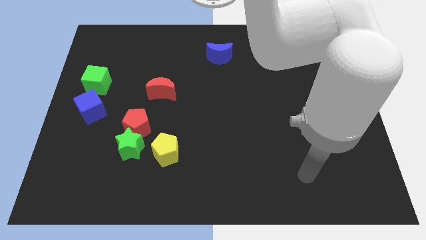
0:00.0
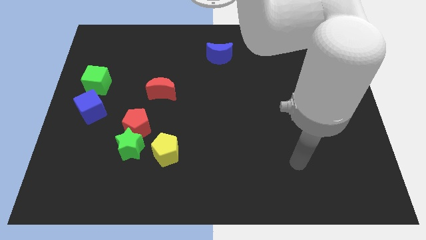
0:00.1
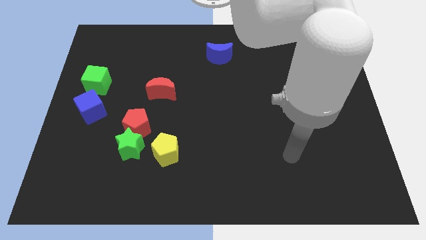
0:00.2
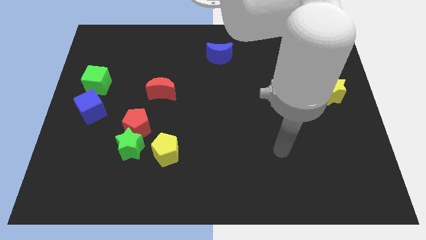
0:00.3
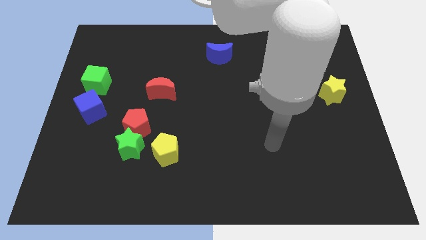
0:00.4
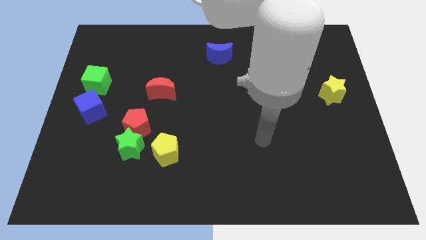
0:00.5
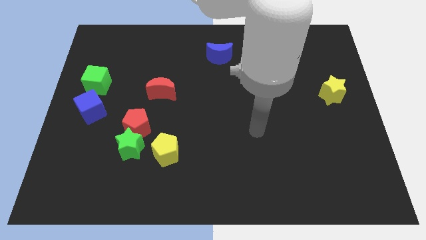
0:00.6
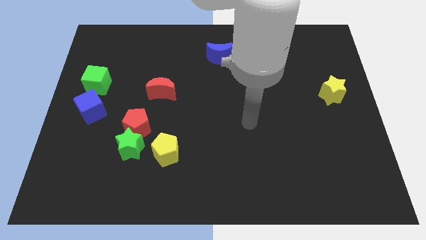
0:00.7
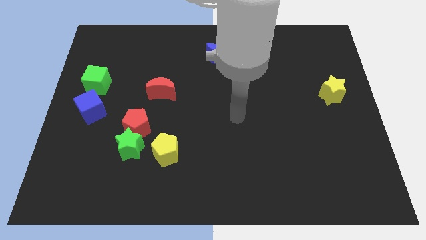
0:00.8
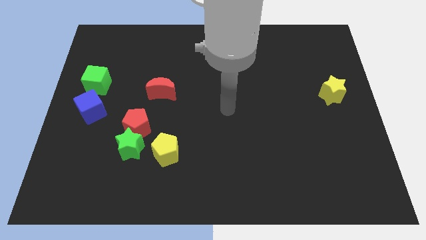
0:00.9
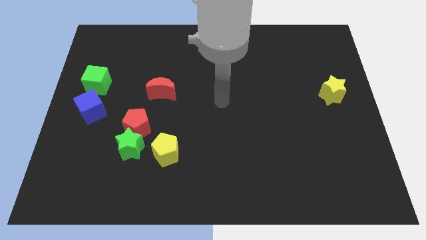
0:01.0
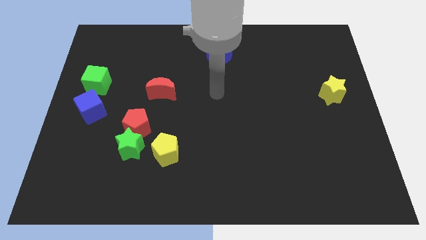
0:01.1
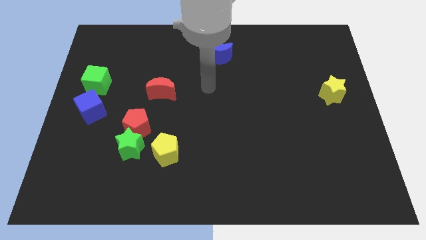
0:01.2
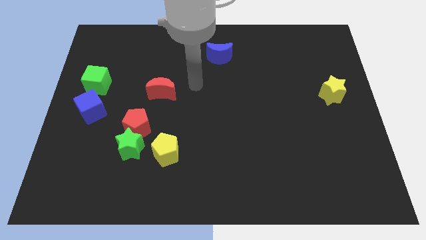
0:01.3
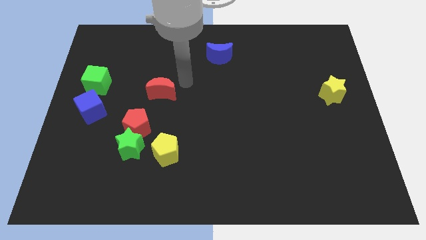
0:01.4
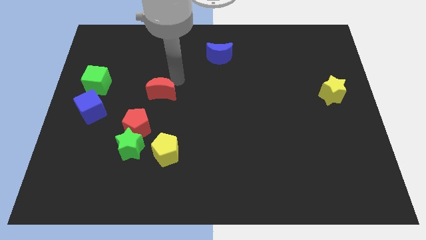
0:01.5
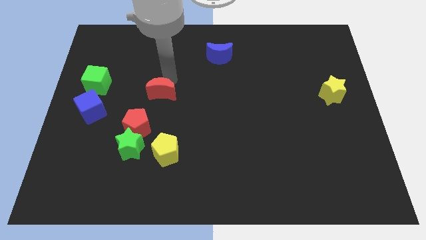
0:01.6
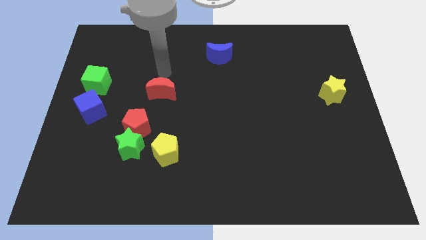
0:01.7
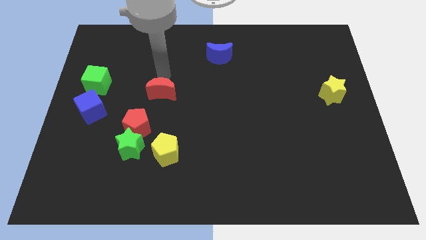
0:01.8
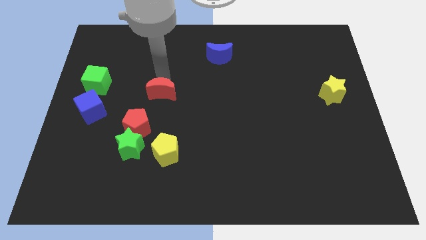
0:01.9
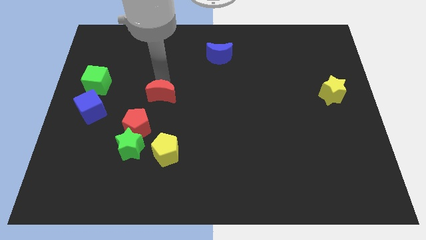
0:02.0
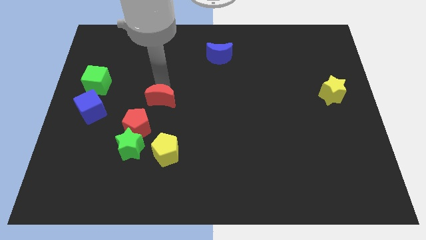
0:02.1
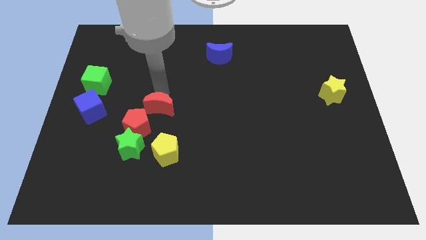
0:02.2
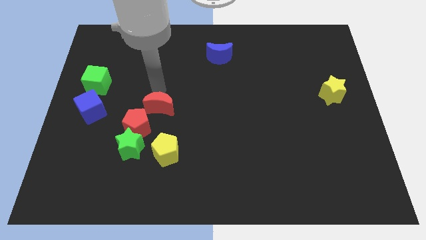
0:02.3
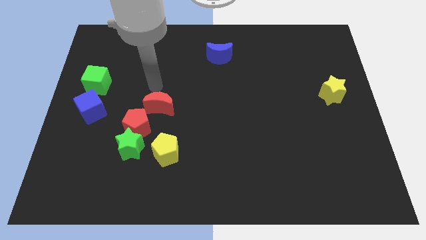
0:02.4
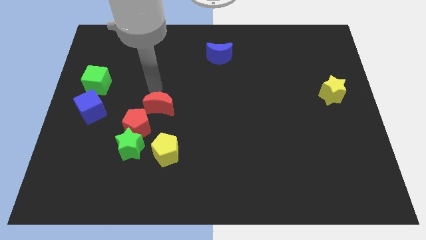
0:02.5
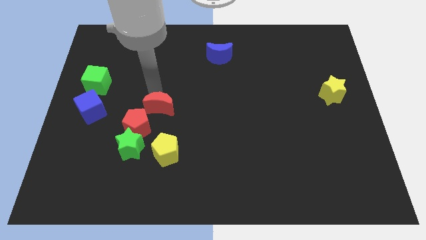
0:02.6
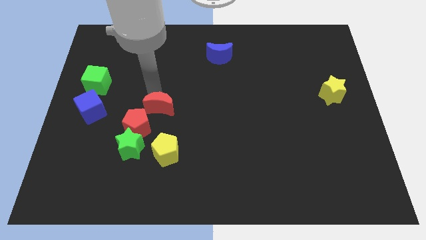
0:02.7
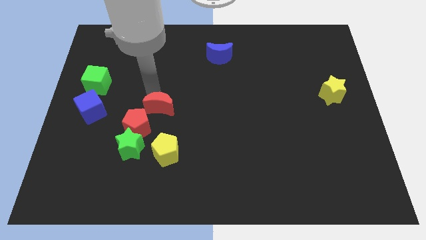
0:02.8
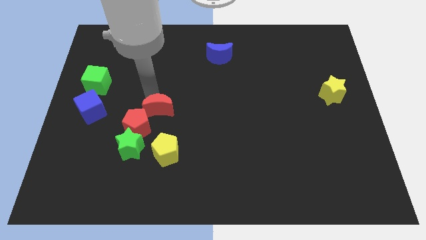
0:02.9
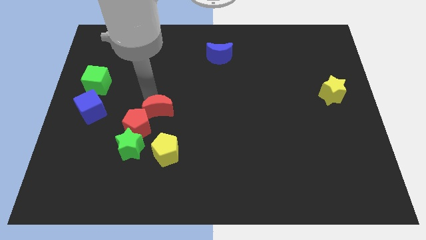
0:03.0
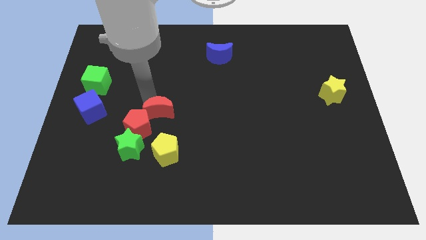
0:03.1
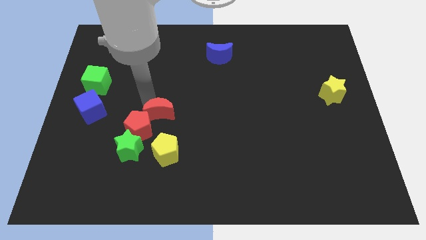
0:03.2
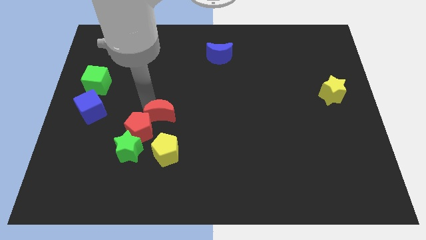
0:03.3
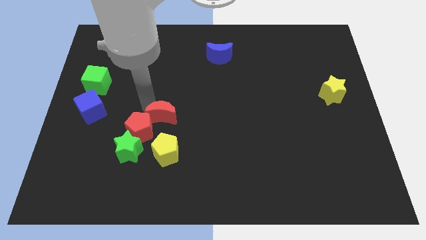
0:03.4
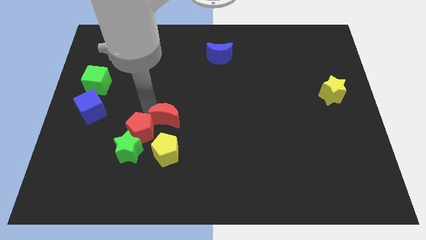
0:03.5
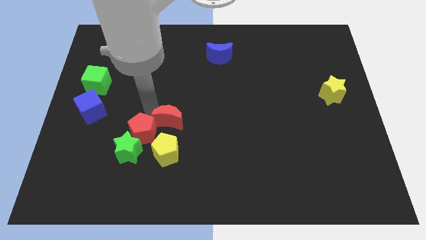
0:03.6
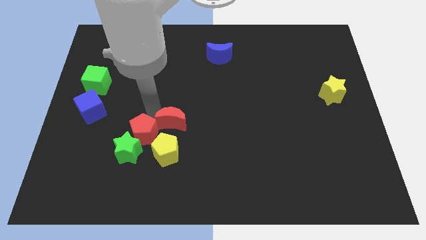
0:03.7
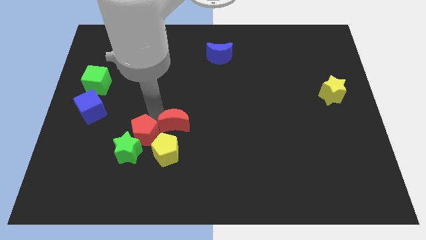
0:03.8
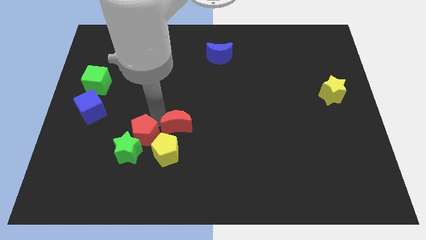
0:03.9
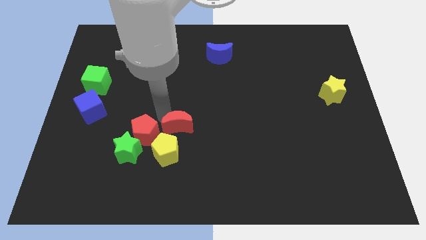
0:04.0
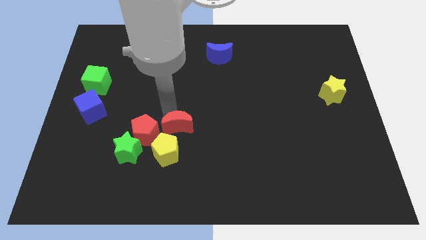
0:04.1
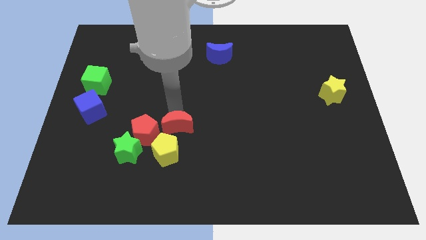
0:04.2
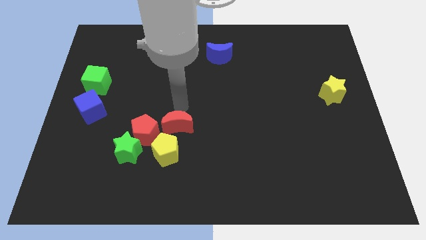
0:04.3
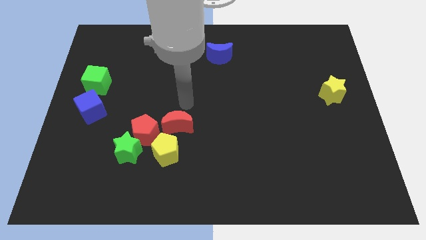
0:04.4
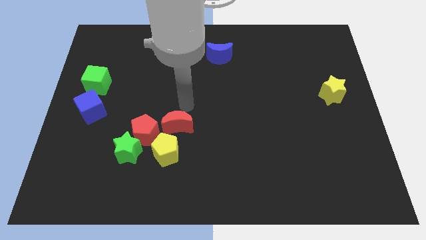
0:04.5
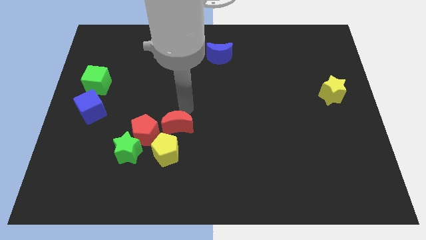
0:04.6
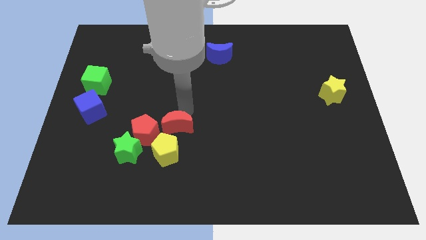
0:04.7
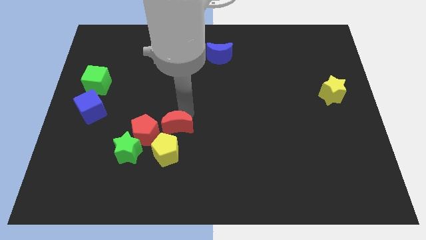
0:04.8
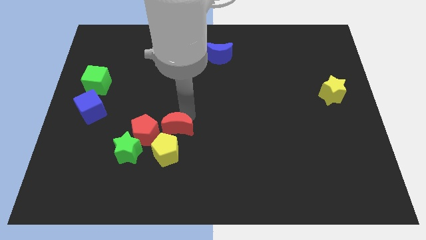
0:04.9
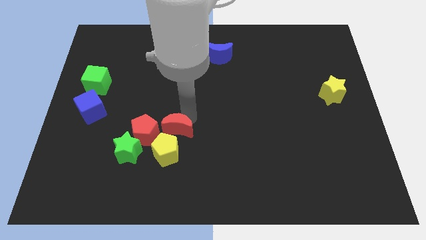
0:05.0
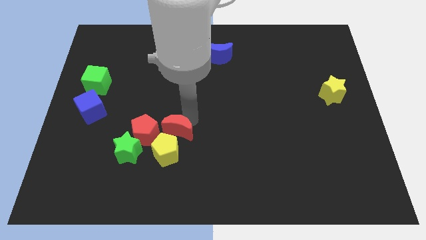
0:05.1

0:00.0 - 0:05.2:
move the red moon close to the yellow pentagon

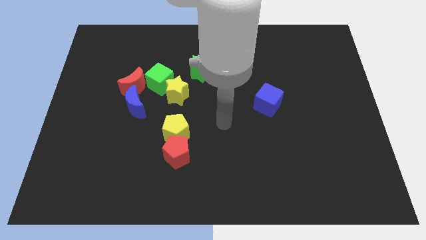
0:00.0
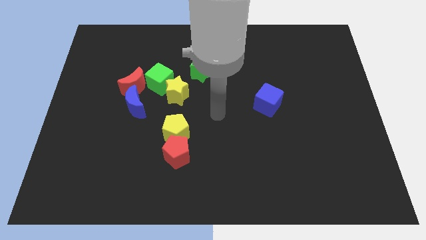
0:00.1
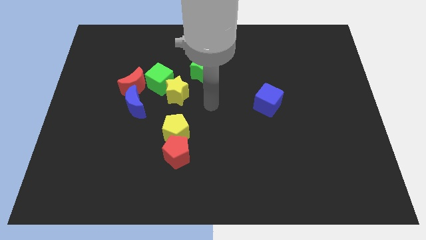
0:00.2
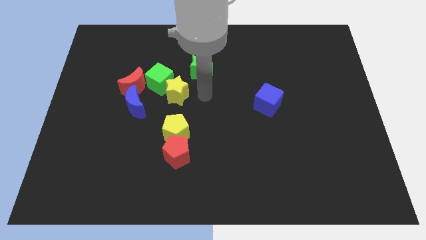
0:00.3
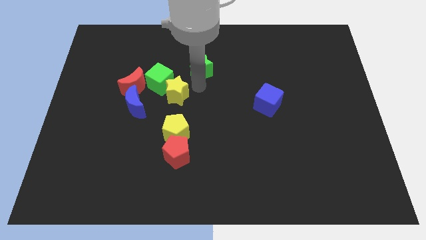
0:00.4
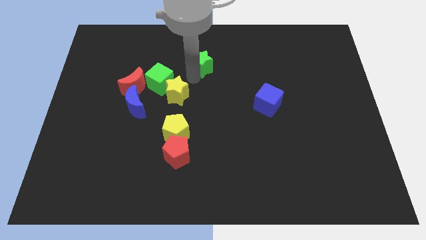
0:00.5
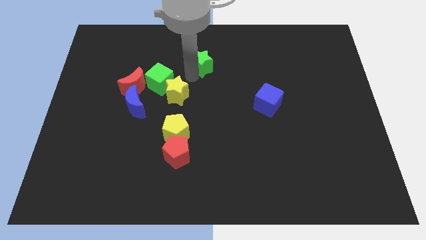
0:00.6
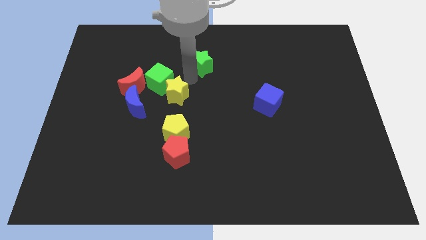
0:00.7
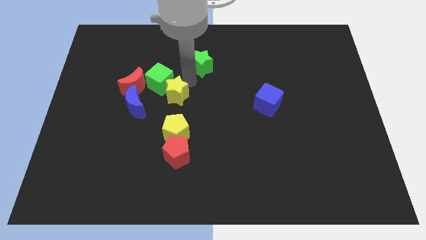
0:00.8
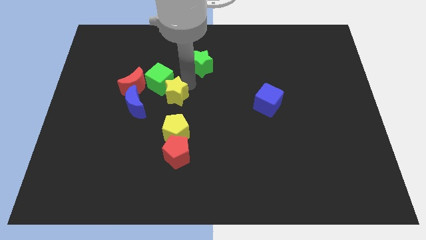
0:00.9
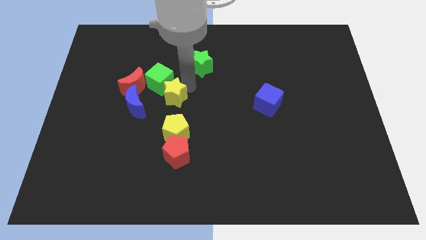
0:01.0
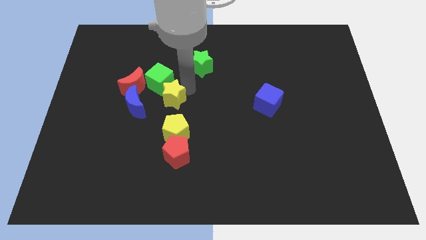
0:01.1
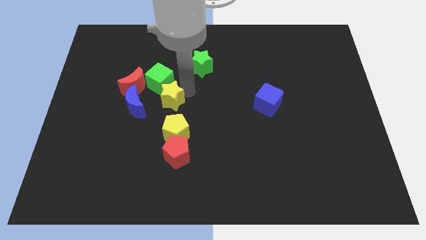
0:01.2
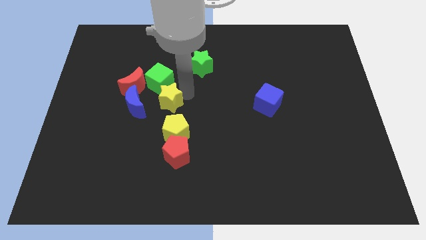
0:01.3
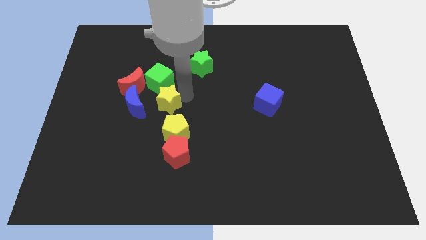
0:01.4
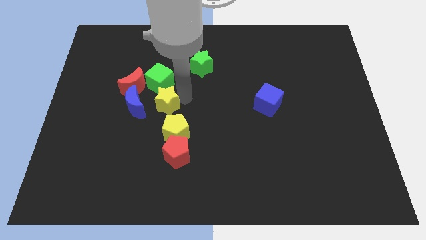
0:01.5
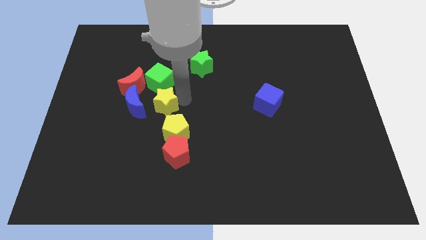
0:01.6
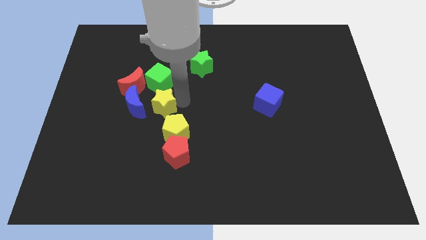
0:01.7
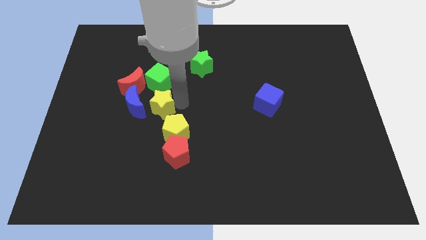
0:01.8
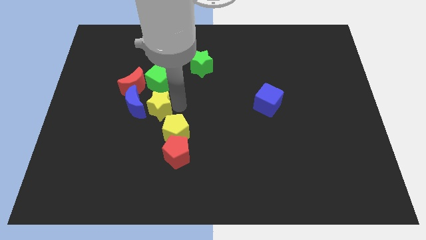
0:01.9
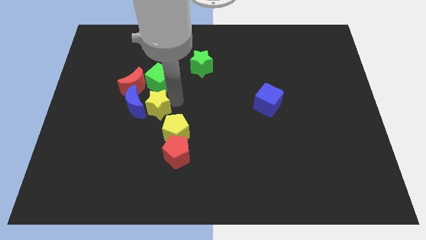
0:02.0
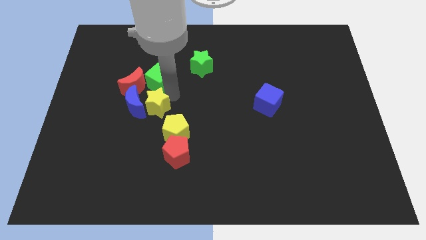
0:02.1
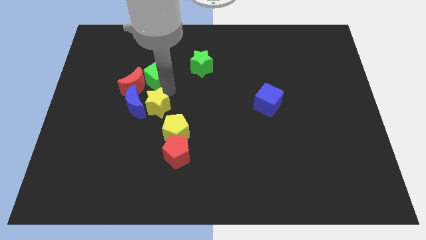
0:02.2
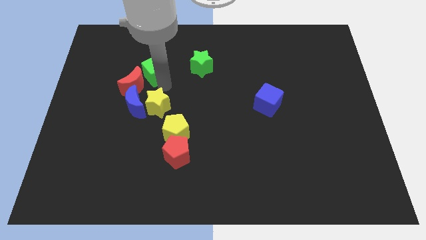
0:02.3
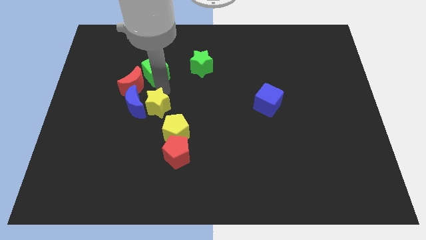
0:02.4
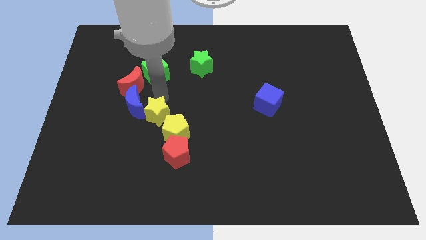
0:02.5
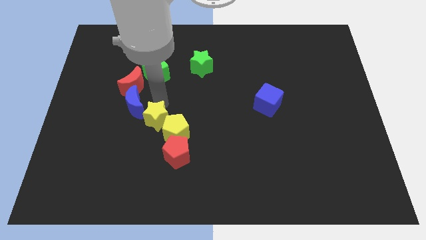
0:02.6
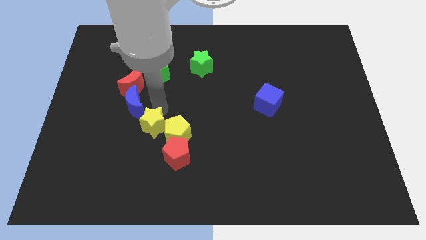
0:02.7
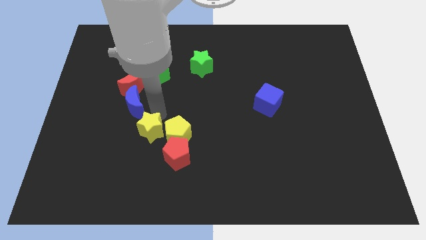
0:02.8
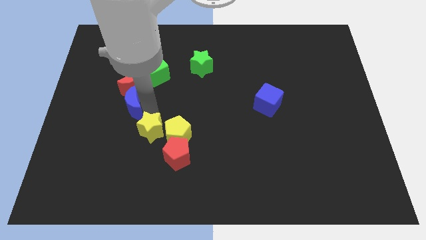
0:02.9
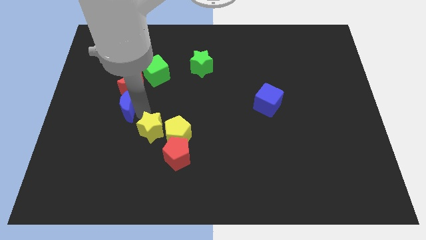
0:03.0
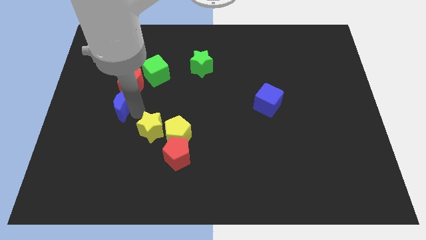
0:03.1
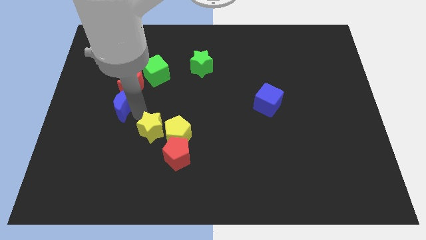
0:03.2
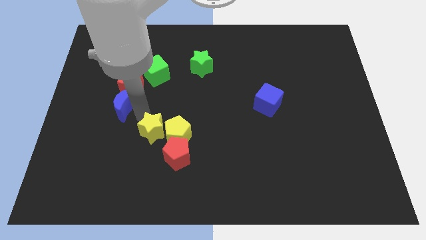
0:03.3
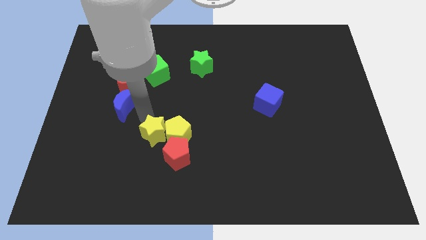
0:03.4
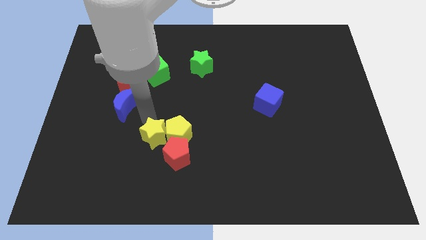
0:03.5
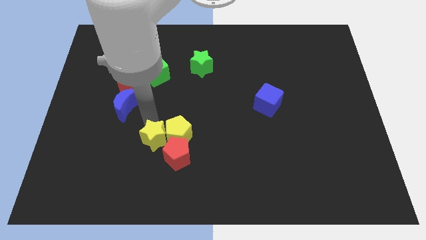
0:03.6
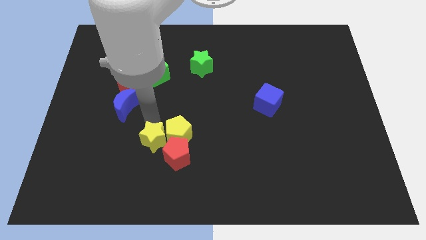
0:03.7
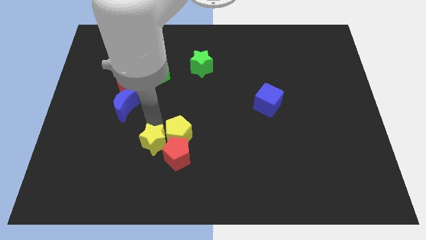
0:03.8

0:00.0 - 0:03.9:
move the yellow star to the red pentagon
